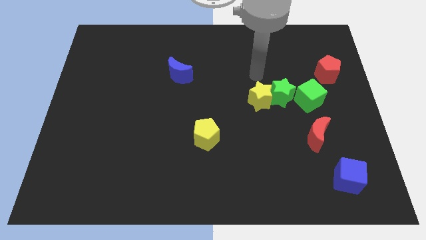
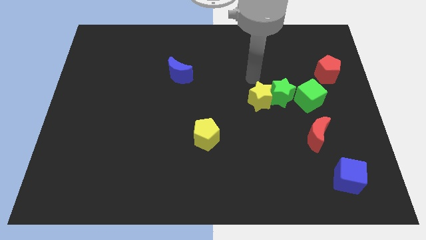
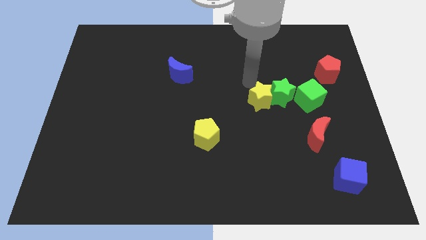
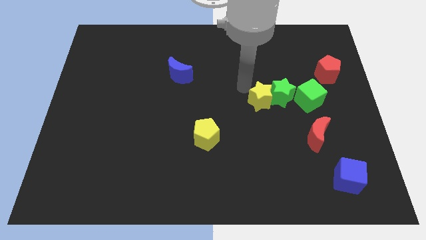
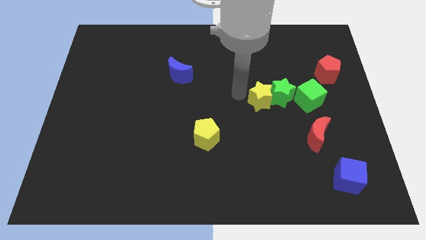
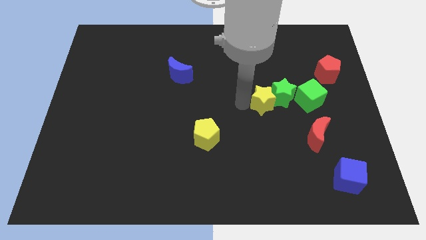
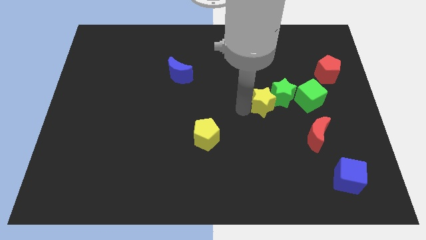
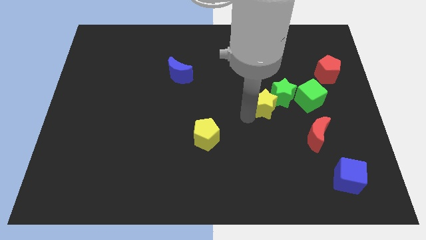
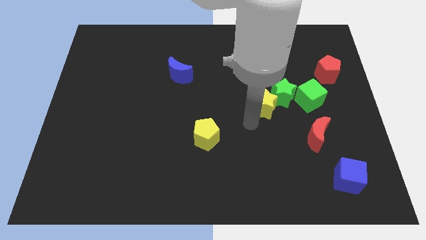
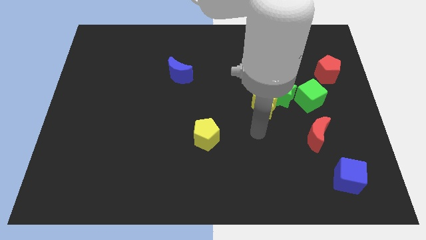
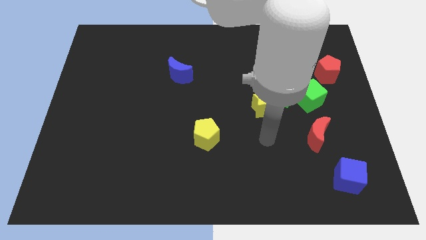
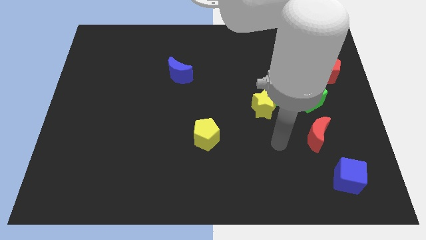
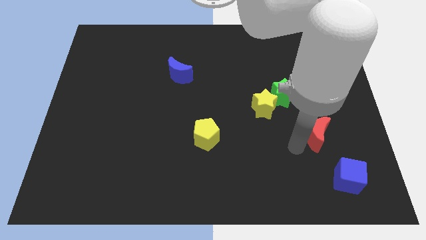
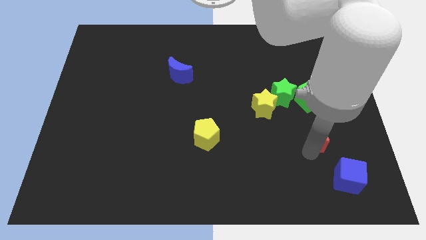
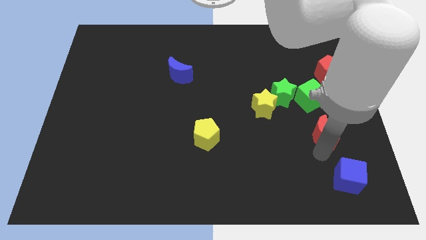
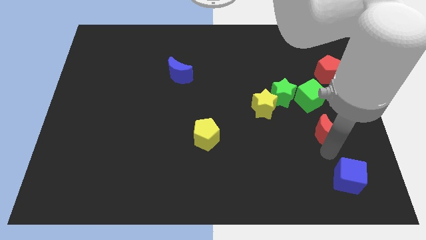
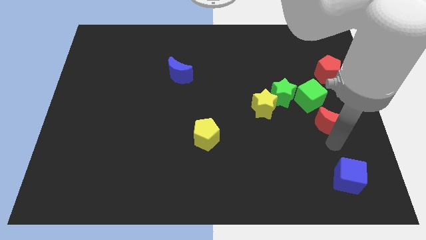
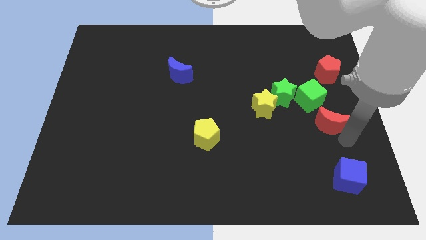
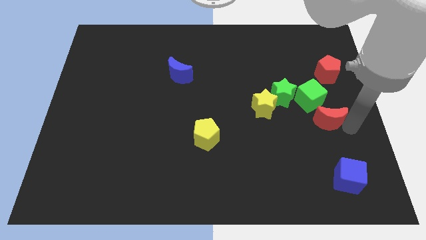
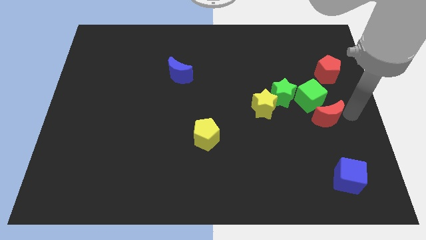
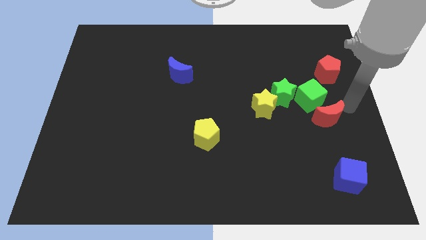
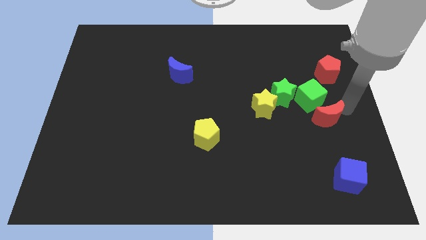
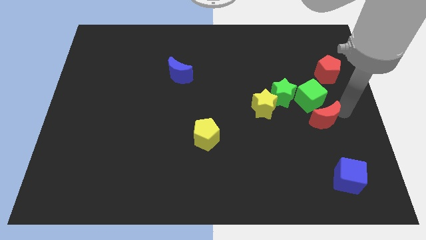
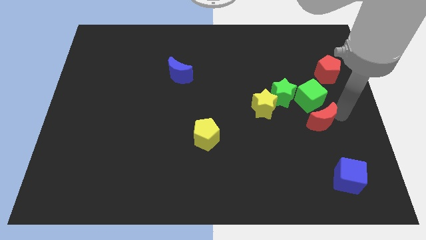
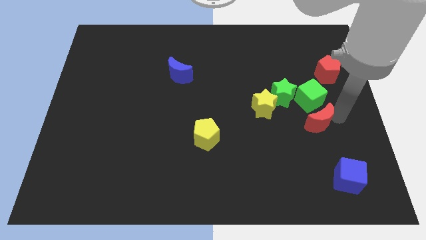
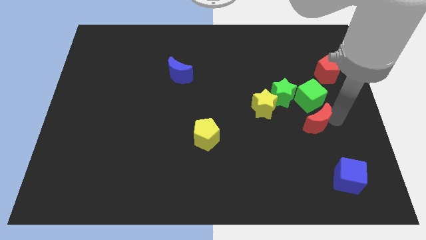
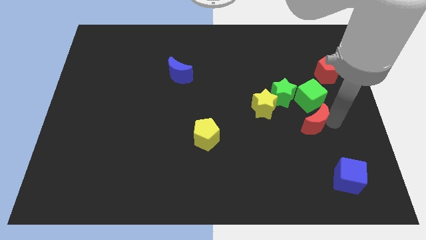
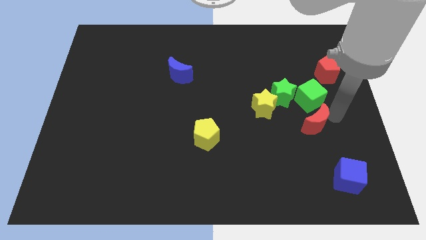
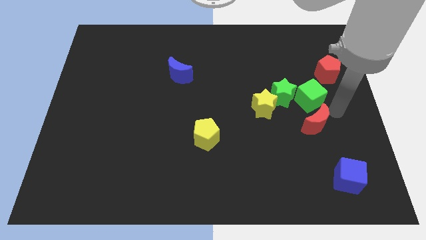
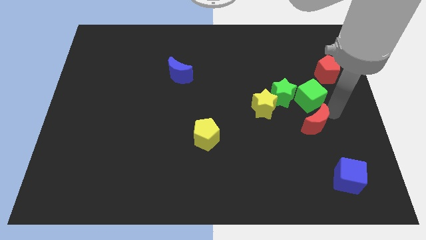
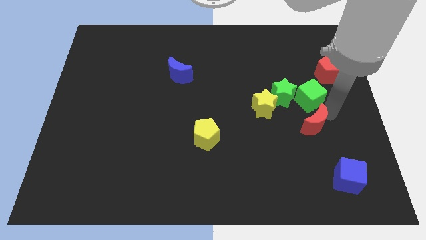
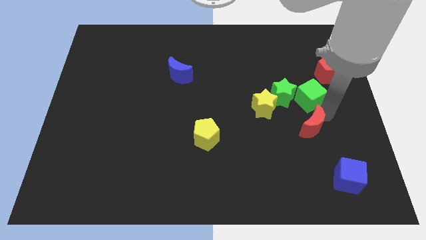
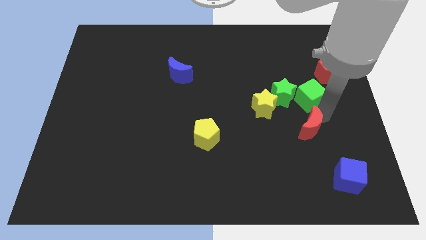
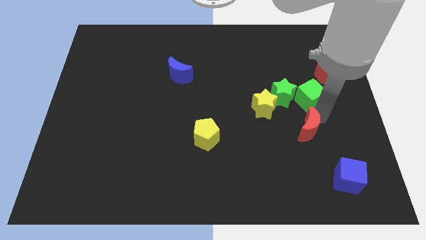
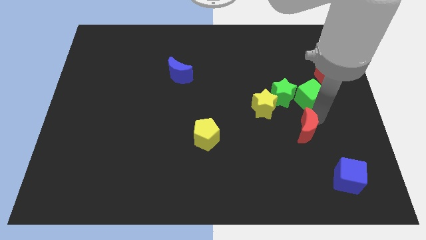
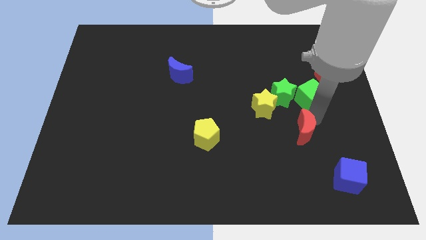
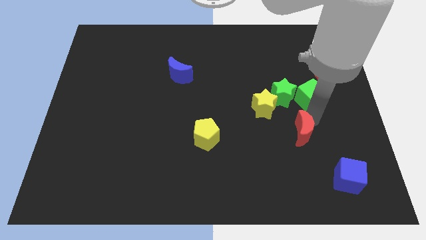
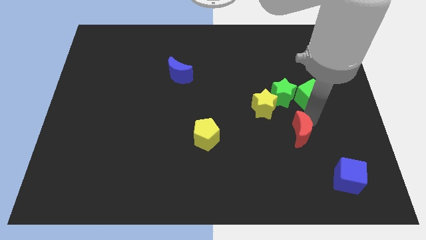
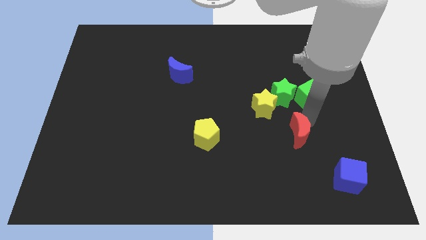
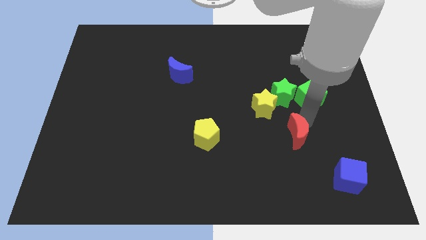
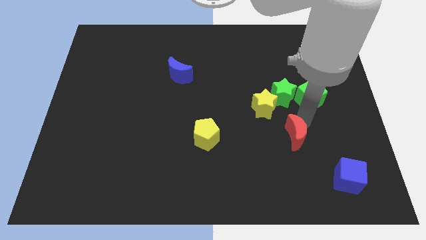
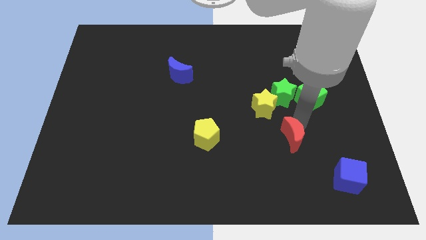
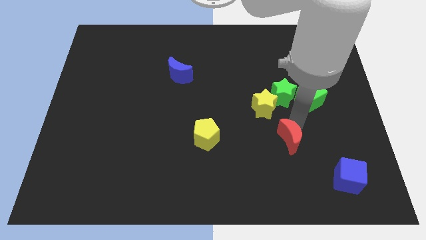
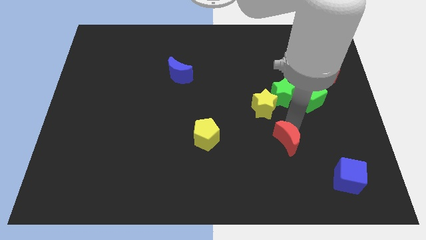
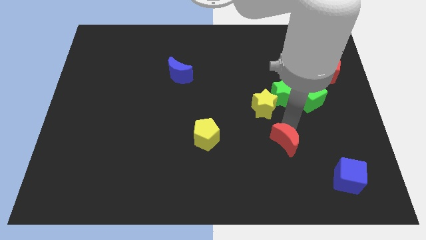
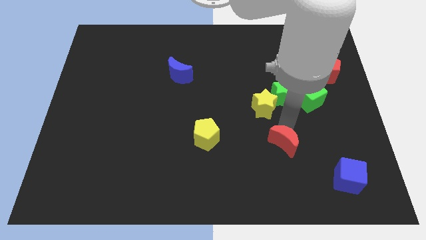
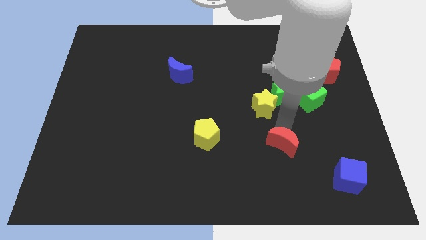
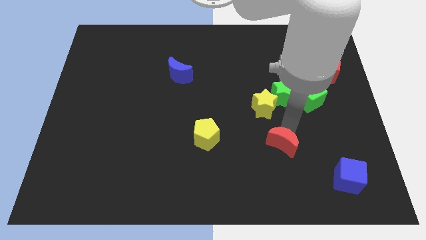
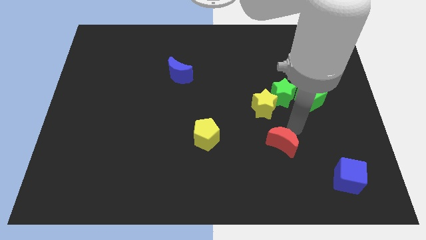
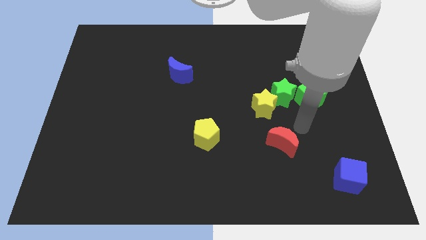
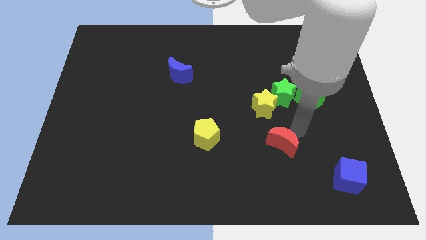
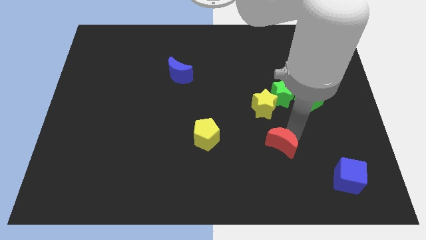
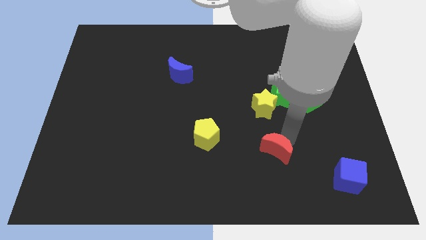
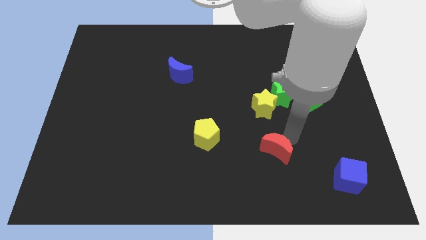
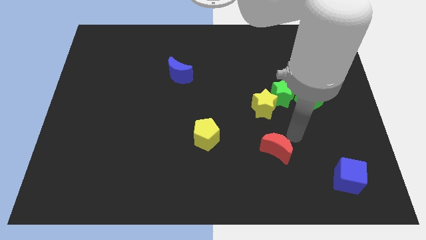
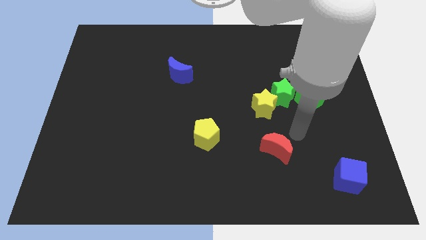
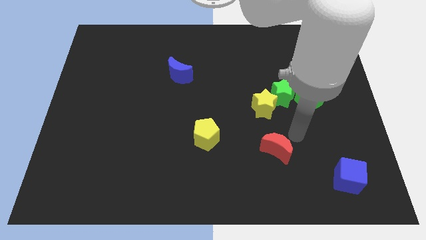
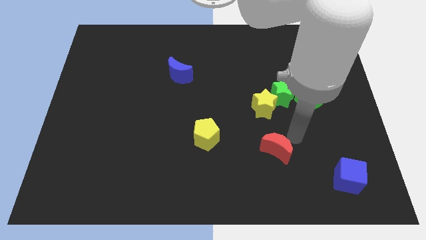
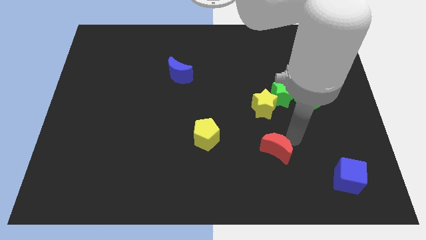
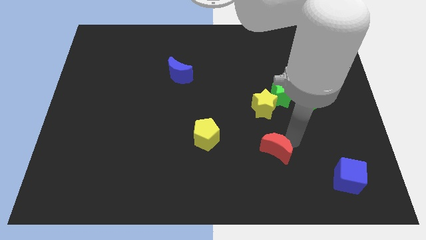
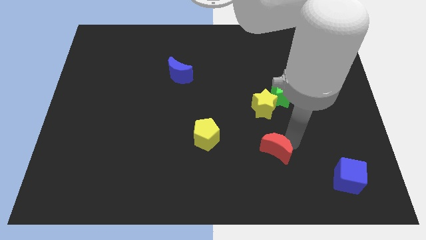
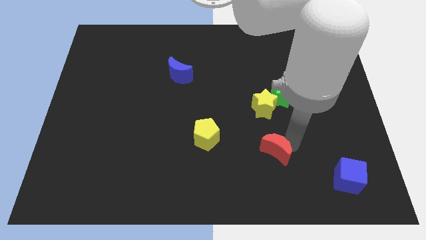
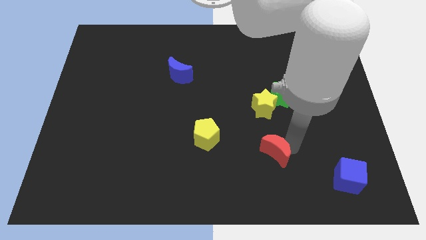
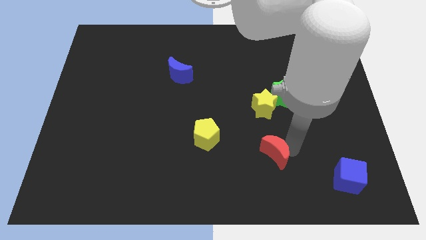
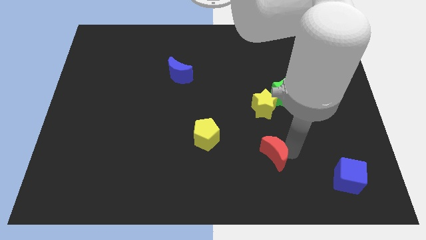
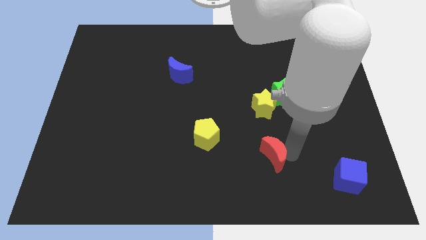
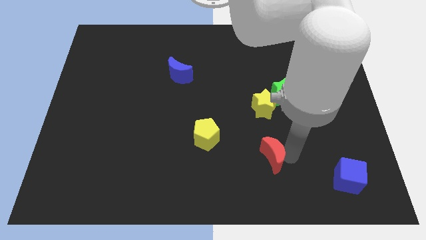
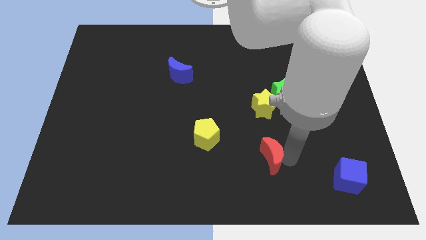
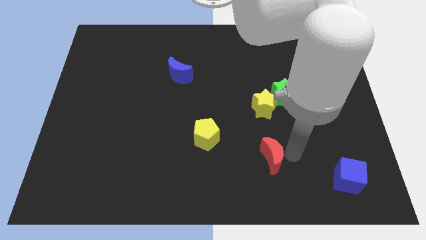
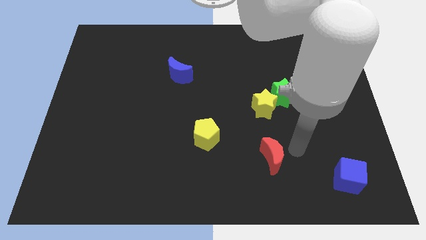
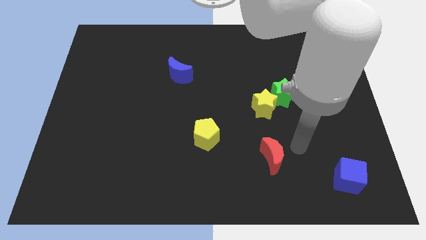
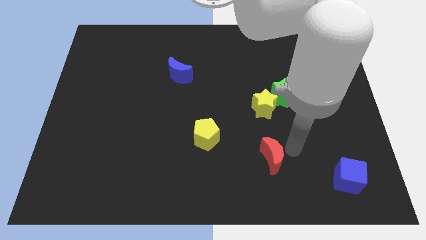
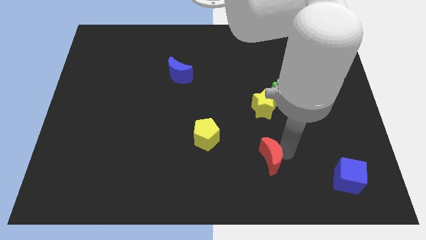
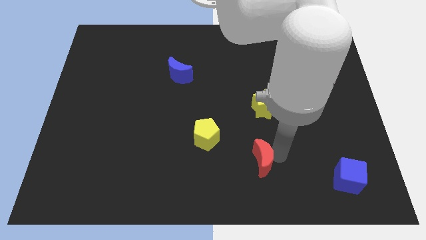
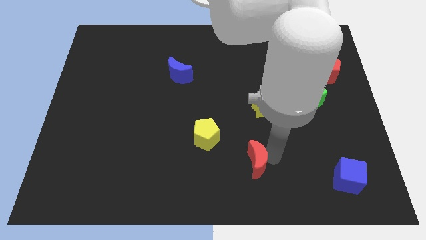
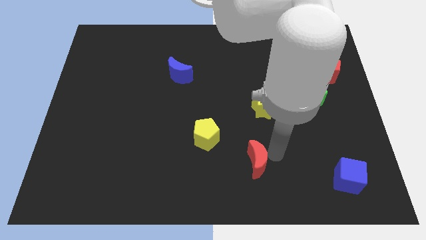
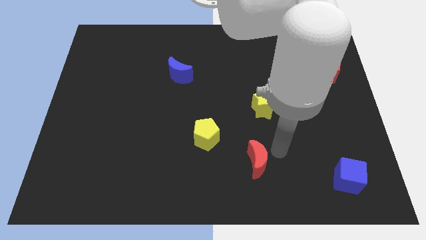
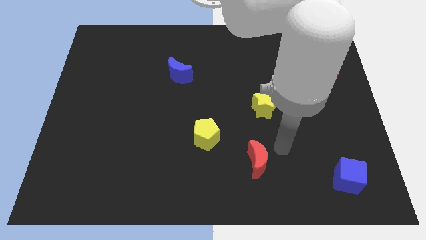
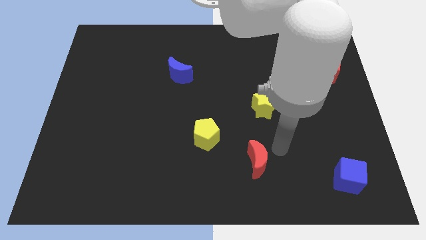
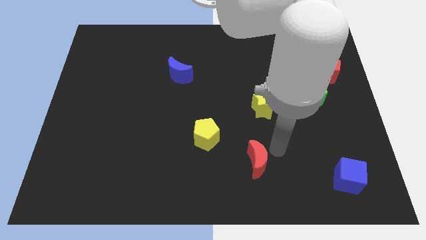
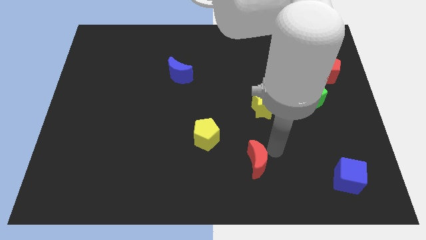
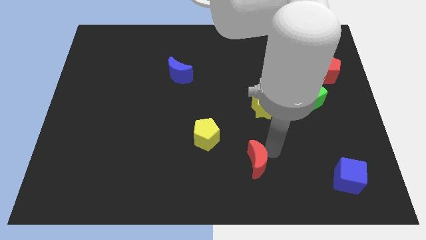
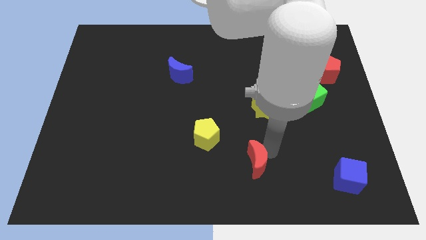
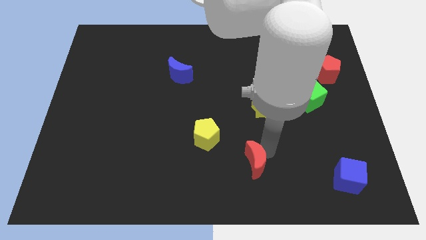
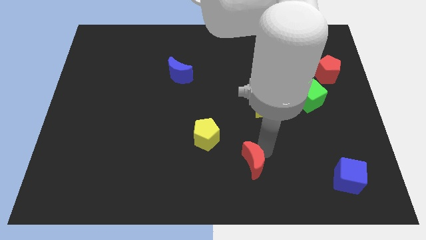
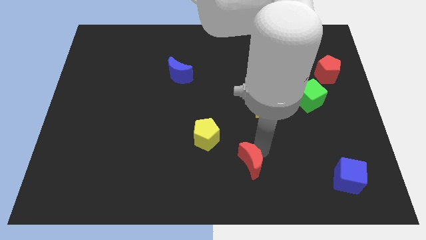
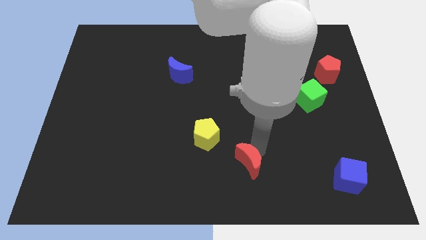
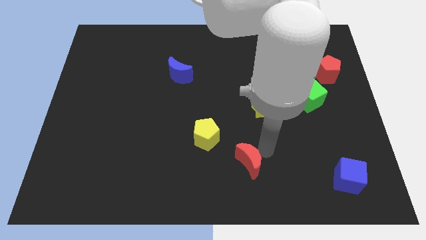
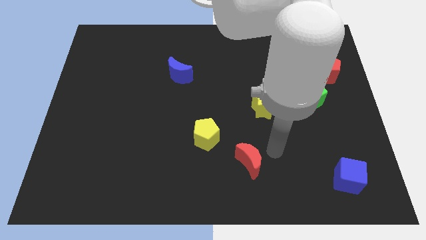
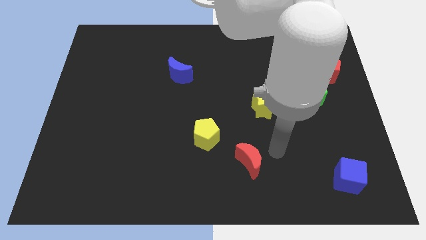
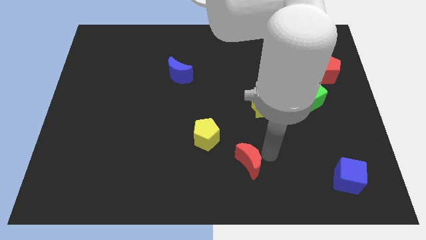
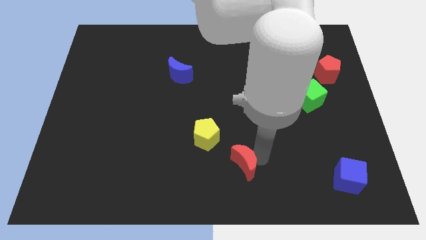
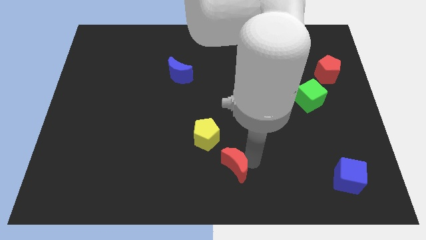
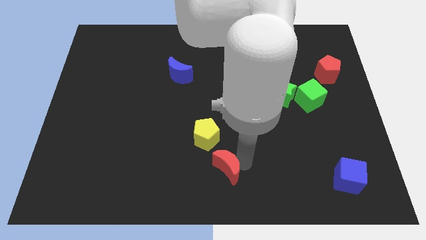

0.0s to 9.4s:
put the red moon below the yellow pentagon
